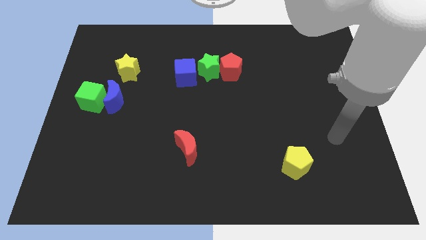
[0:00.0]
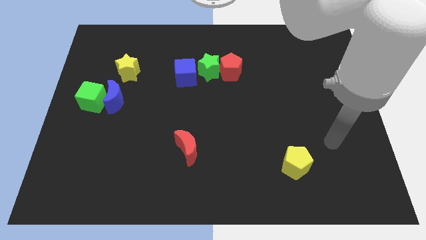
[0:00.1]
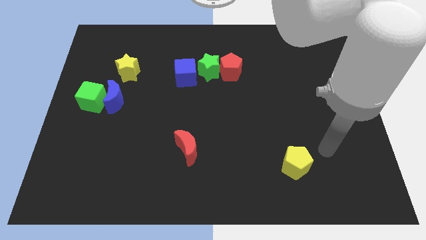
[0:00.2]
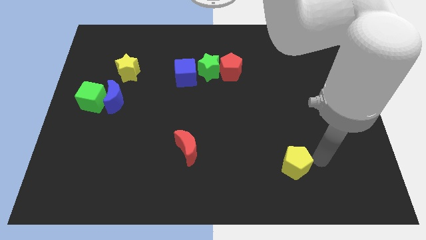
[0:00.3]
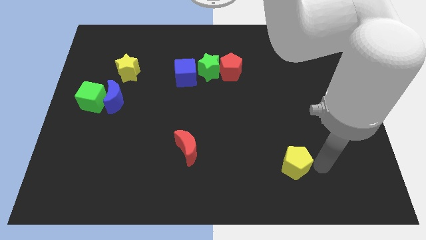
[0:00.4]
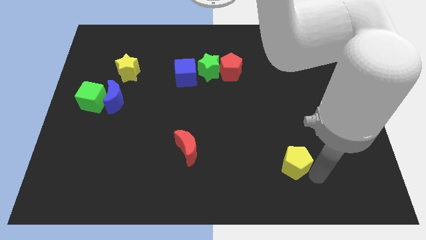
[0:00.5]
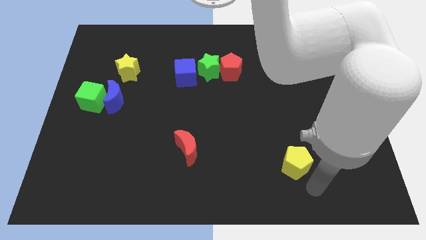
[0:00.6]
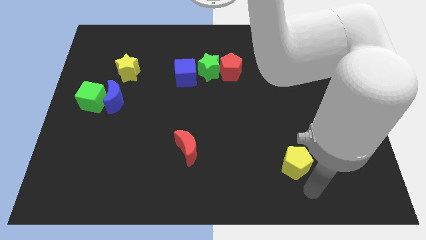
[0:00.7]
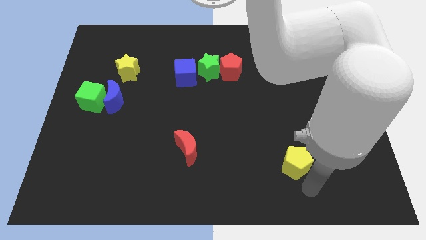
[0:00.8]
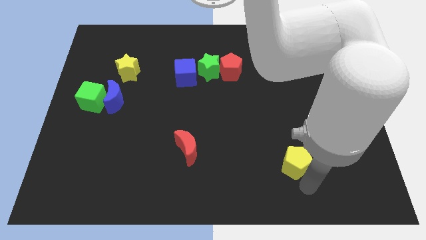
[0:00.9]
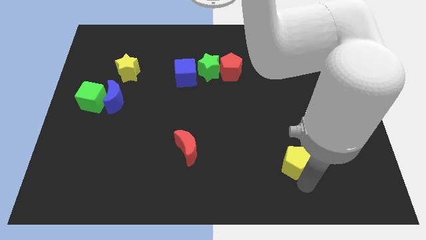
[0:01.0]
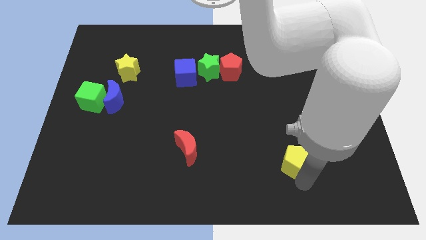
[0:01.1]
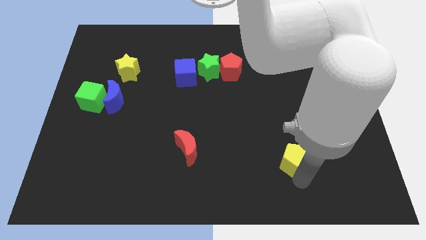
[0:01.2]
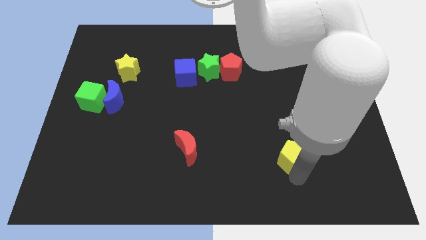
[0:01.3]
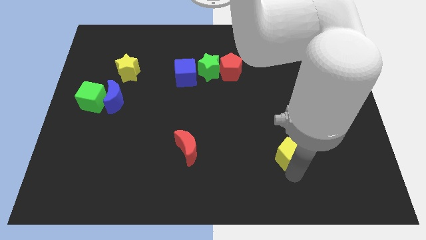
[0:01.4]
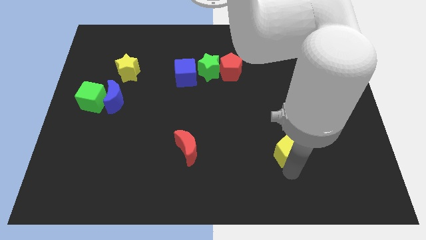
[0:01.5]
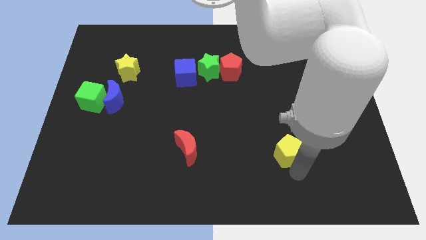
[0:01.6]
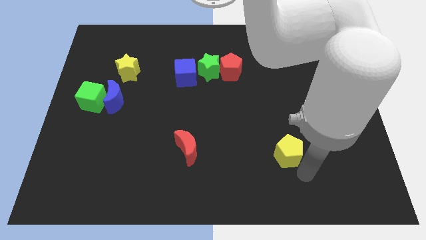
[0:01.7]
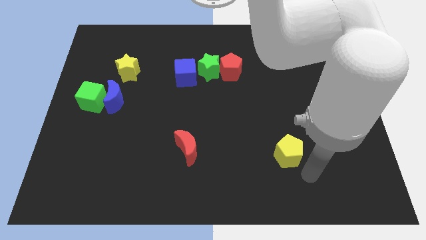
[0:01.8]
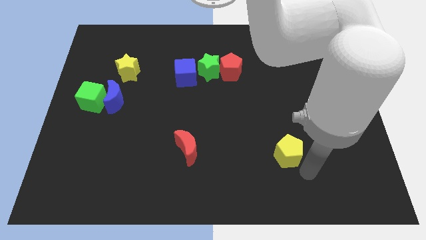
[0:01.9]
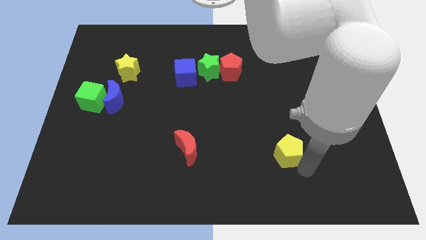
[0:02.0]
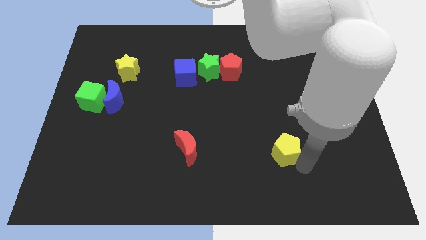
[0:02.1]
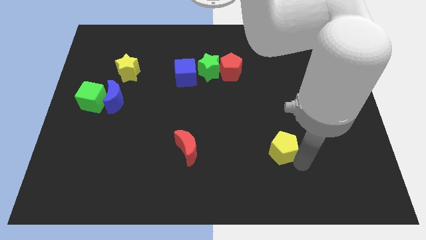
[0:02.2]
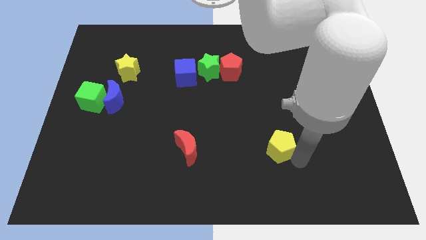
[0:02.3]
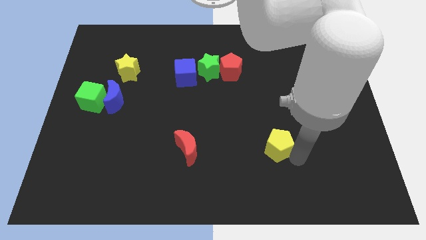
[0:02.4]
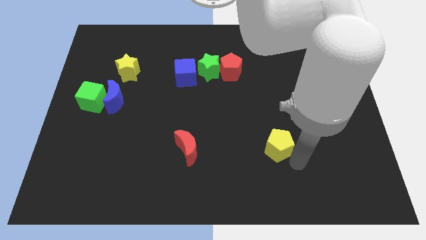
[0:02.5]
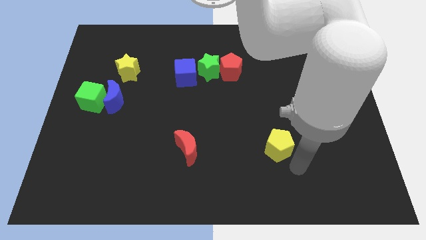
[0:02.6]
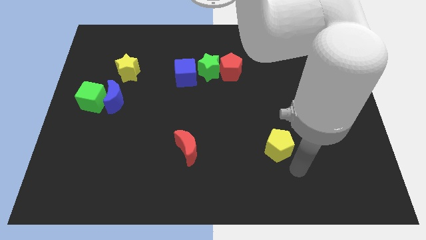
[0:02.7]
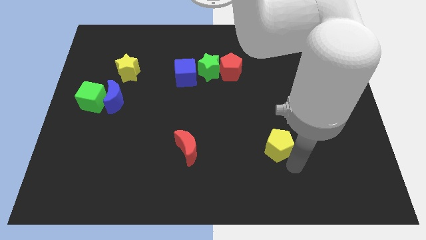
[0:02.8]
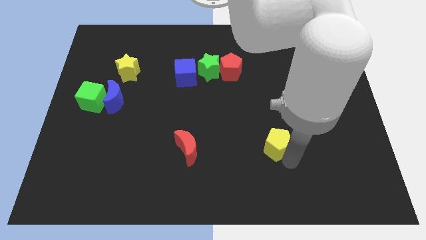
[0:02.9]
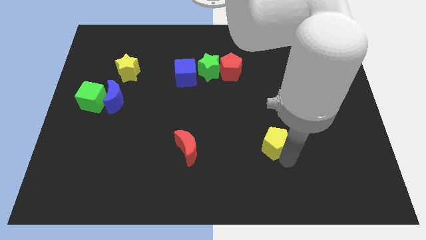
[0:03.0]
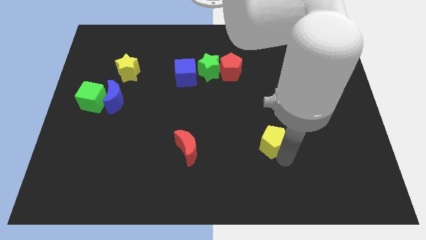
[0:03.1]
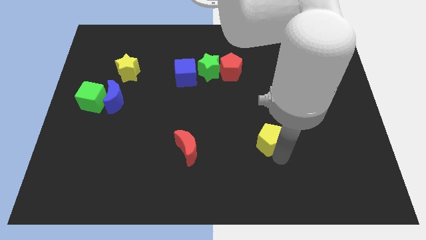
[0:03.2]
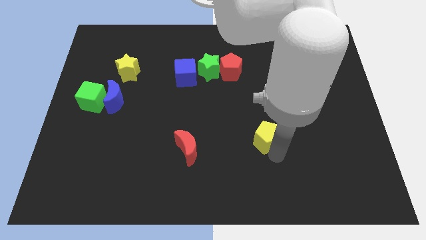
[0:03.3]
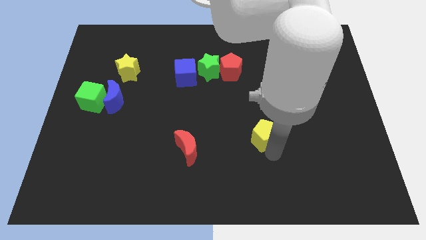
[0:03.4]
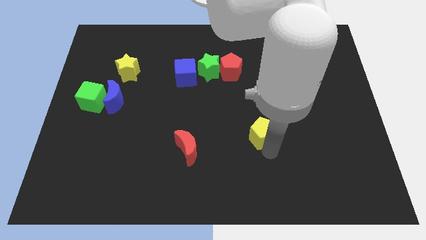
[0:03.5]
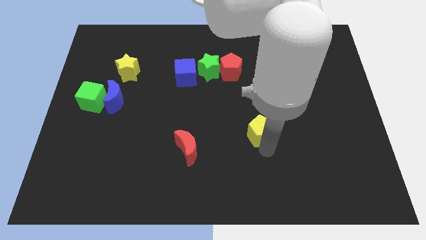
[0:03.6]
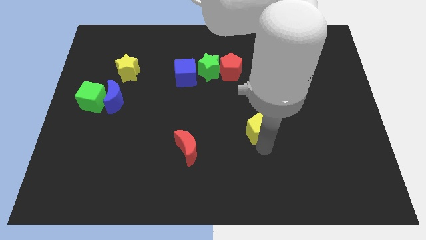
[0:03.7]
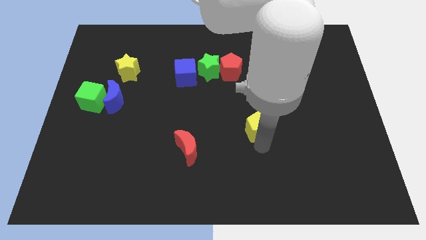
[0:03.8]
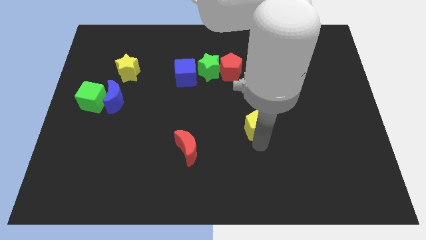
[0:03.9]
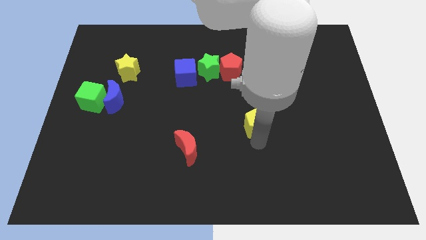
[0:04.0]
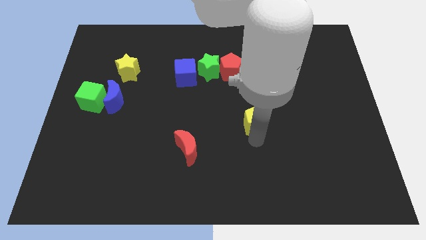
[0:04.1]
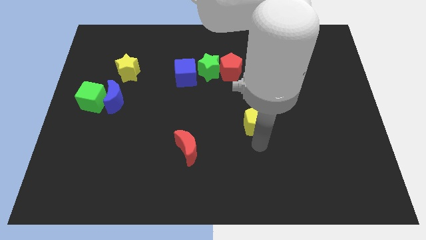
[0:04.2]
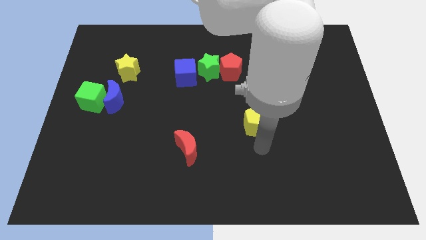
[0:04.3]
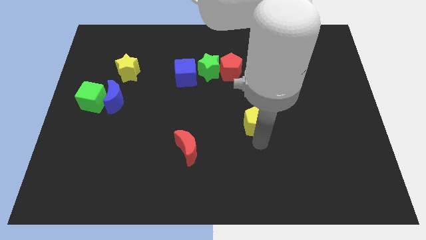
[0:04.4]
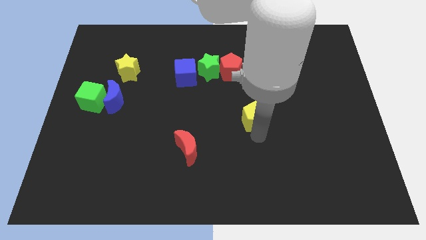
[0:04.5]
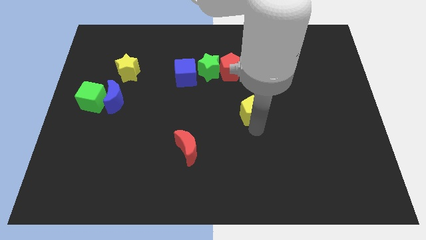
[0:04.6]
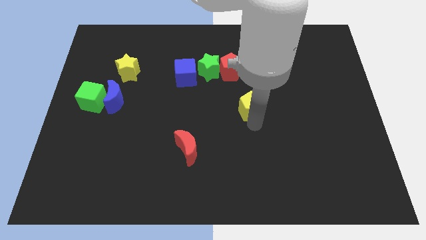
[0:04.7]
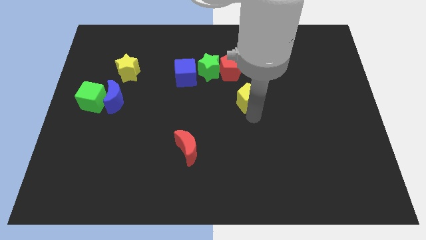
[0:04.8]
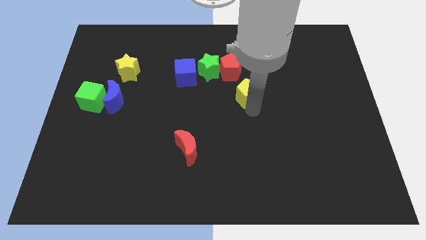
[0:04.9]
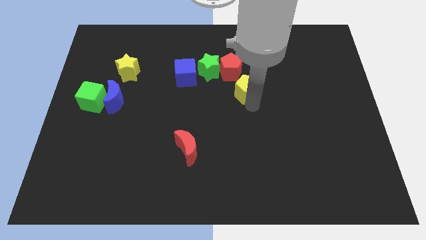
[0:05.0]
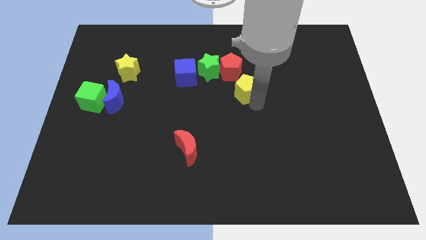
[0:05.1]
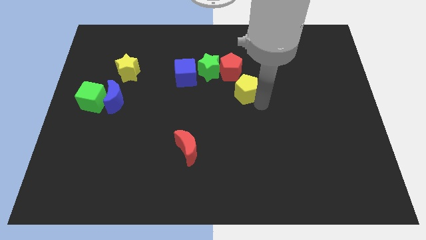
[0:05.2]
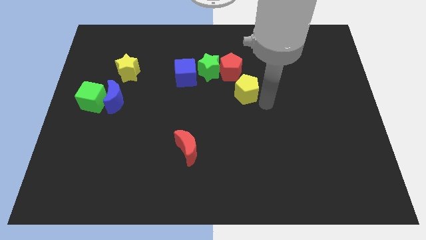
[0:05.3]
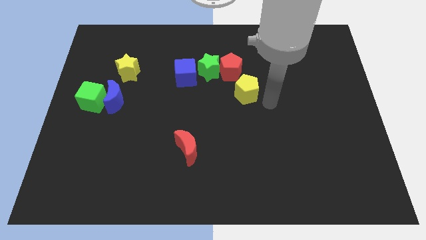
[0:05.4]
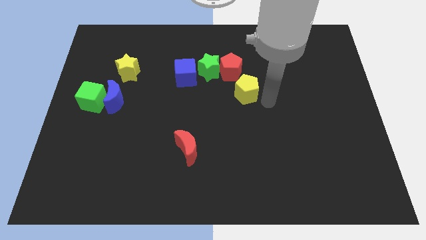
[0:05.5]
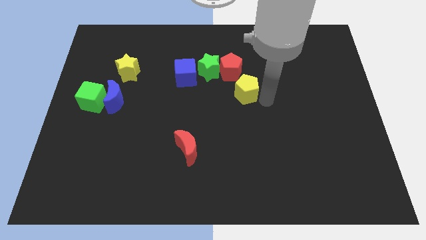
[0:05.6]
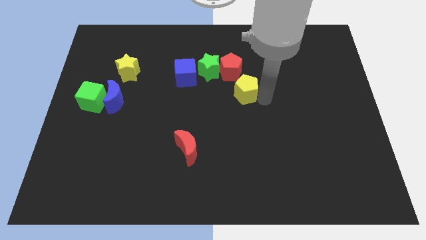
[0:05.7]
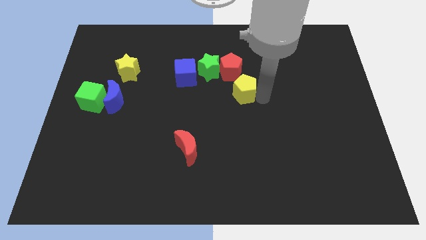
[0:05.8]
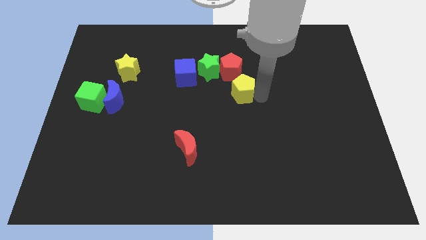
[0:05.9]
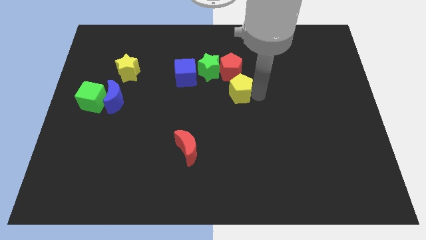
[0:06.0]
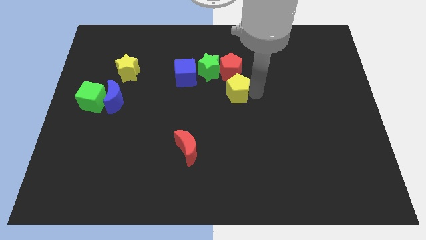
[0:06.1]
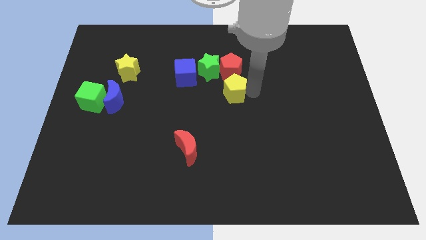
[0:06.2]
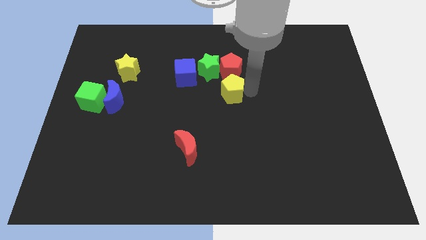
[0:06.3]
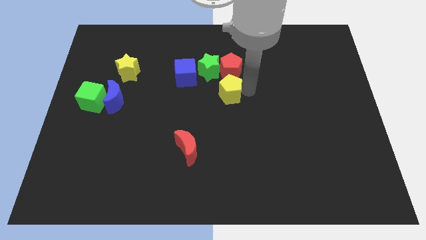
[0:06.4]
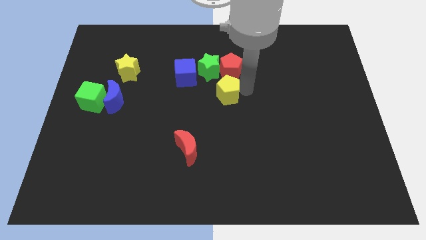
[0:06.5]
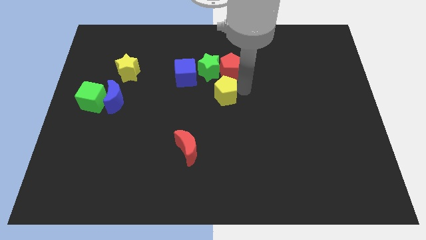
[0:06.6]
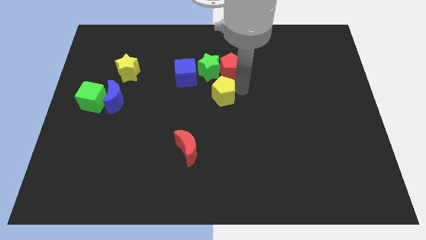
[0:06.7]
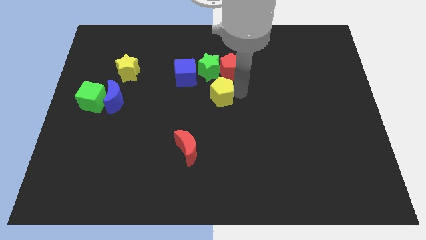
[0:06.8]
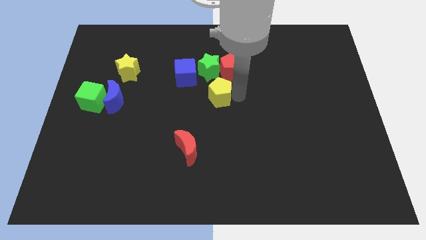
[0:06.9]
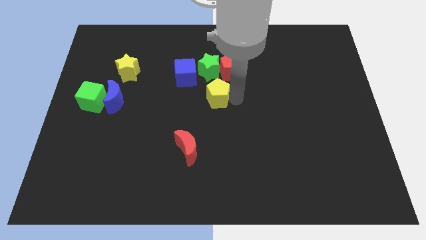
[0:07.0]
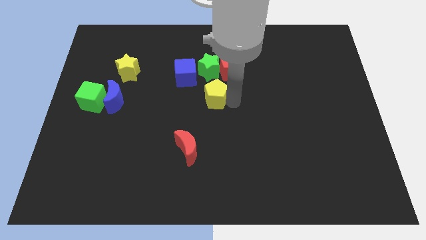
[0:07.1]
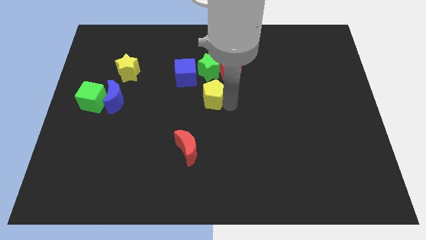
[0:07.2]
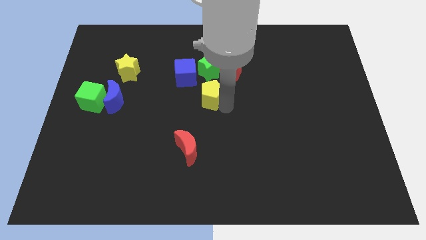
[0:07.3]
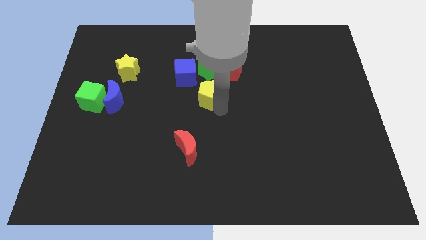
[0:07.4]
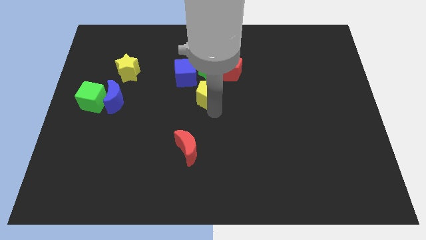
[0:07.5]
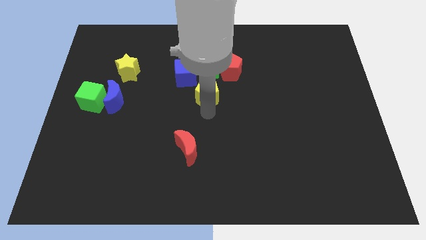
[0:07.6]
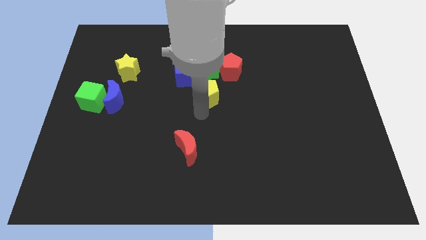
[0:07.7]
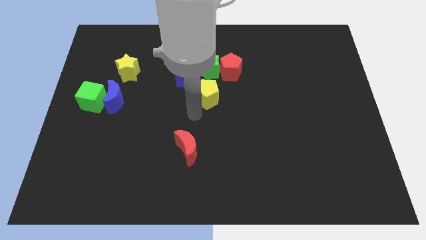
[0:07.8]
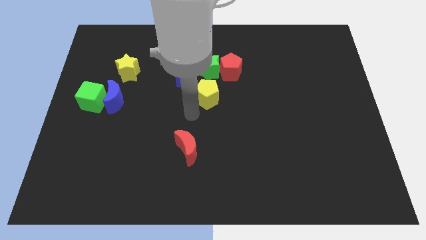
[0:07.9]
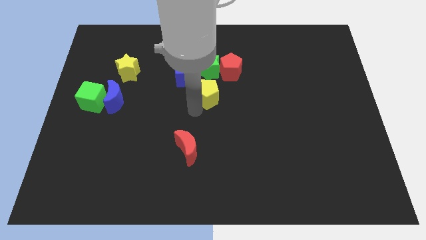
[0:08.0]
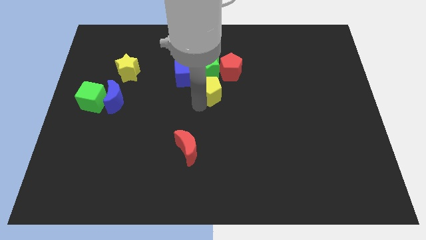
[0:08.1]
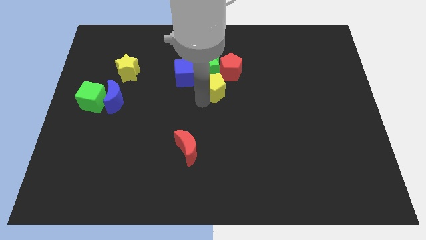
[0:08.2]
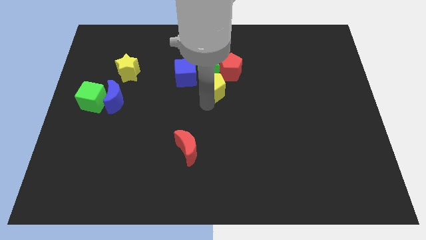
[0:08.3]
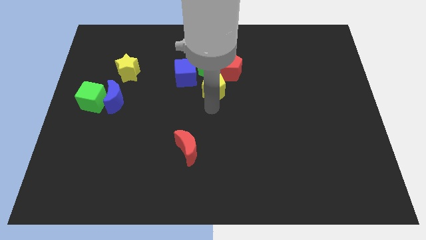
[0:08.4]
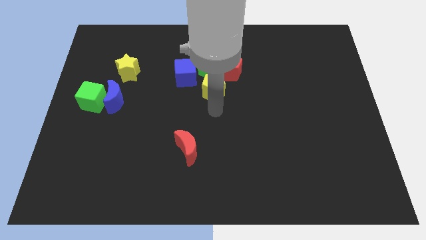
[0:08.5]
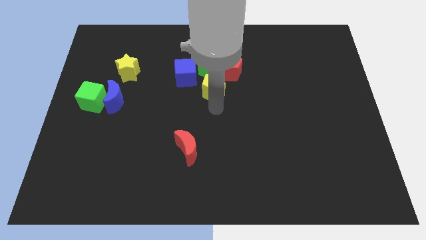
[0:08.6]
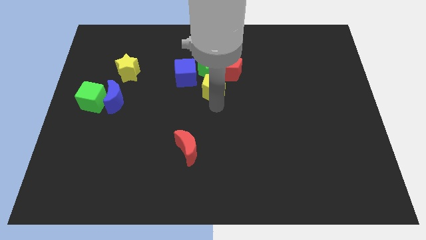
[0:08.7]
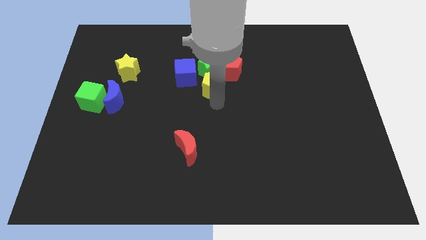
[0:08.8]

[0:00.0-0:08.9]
slide the yellow pentagon next to the green star
